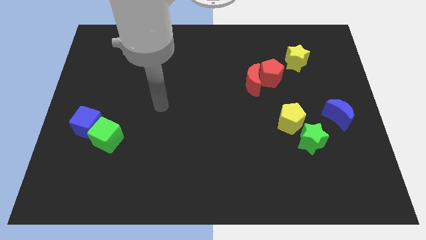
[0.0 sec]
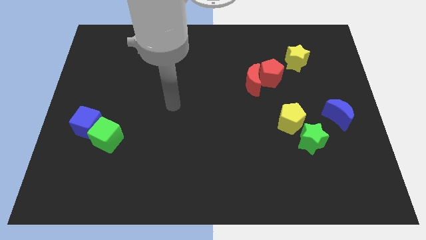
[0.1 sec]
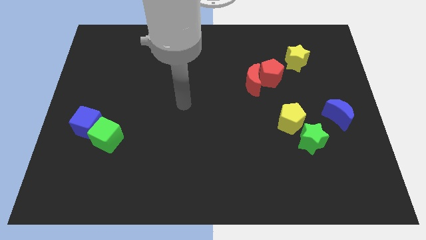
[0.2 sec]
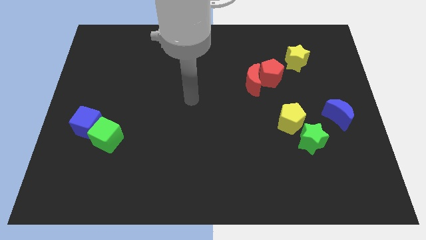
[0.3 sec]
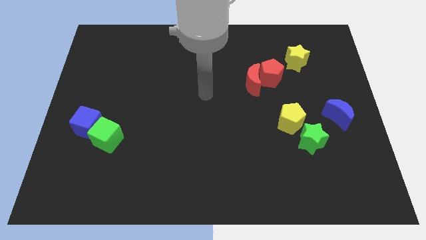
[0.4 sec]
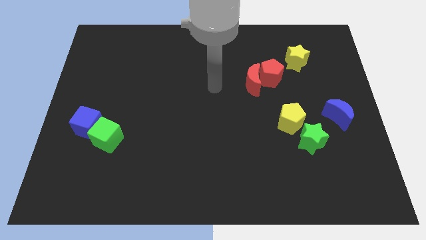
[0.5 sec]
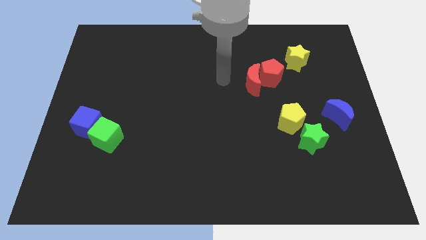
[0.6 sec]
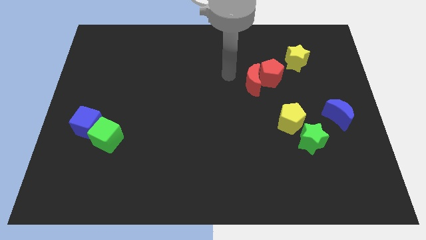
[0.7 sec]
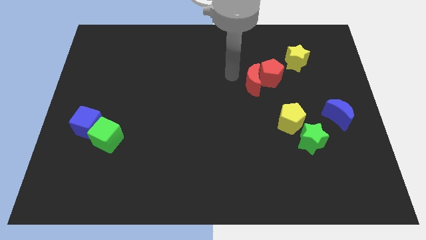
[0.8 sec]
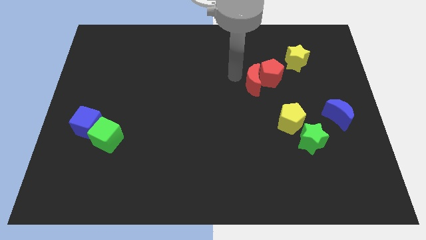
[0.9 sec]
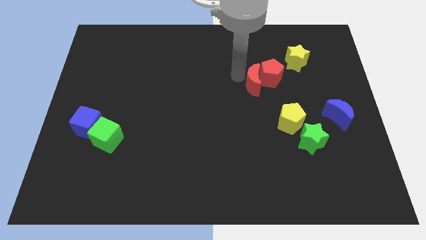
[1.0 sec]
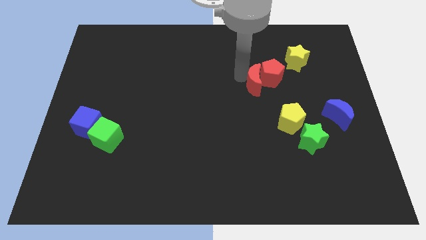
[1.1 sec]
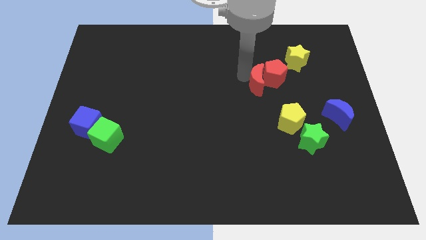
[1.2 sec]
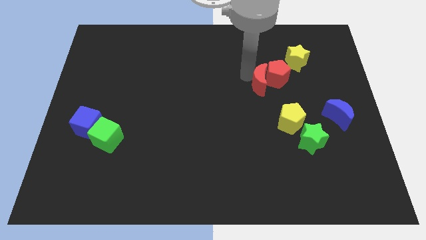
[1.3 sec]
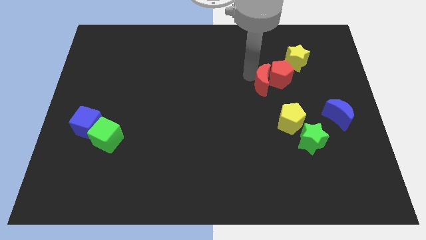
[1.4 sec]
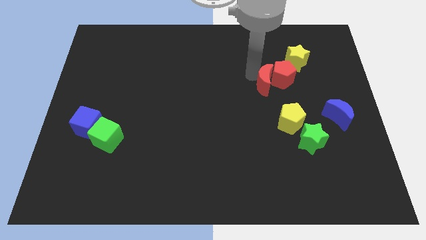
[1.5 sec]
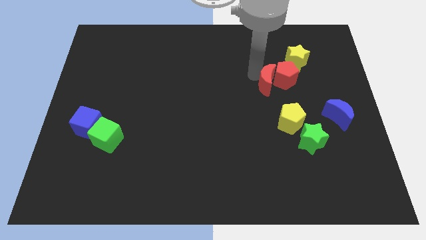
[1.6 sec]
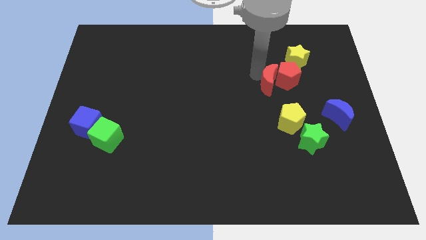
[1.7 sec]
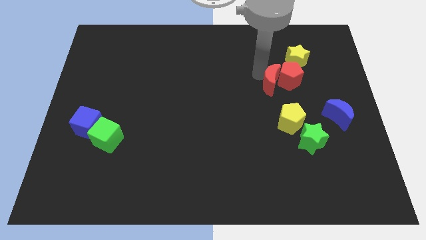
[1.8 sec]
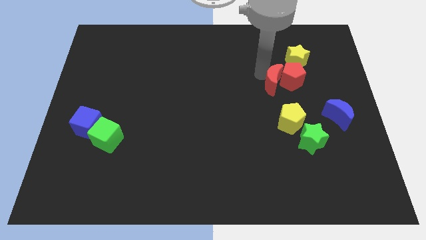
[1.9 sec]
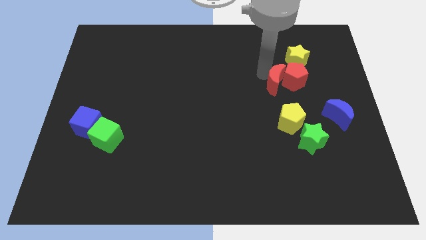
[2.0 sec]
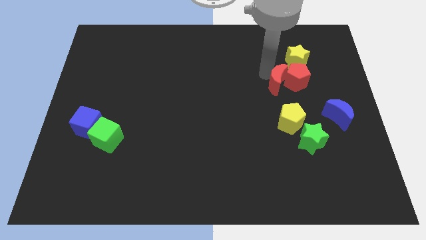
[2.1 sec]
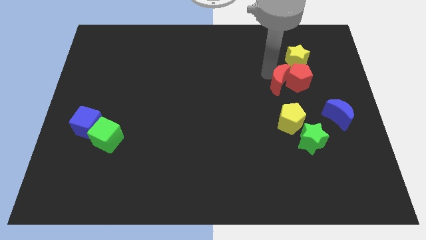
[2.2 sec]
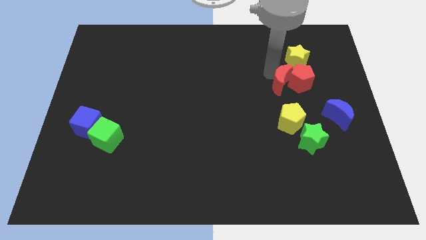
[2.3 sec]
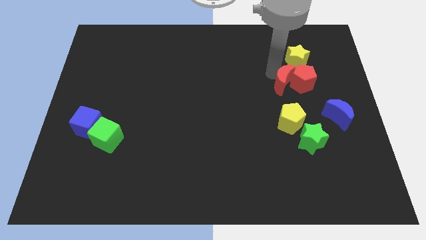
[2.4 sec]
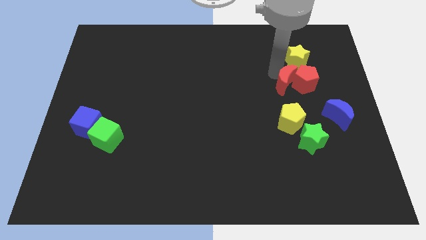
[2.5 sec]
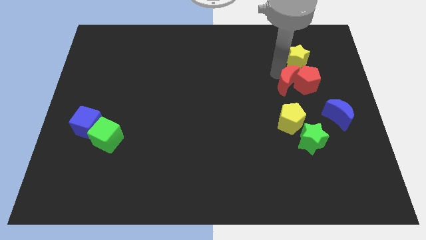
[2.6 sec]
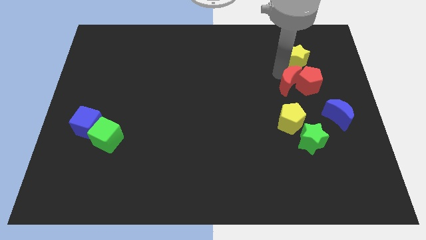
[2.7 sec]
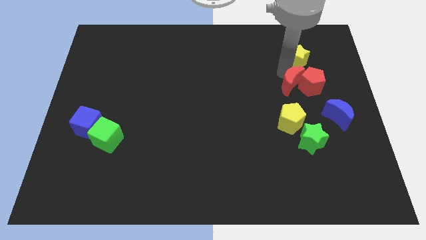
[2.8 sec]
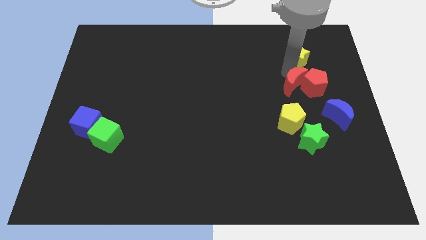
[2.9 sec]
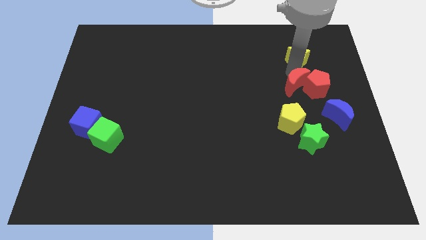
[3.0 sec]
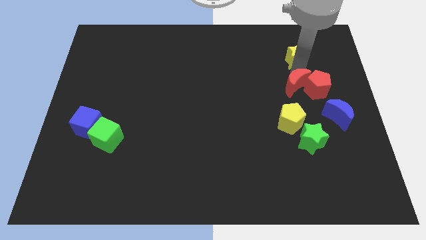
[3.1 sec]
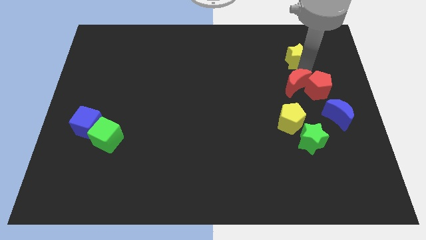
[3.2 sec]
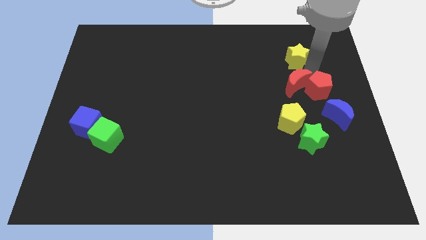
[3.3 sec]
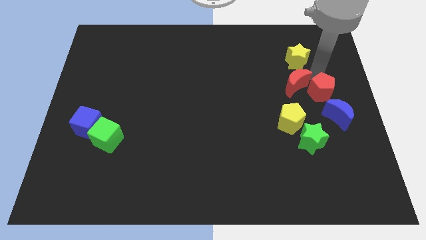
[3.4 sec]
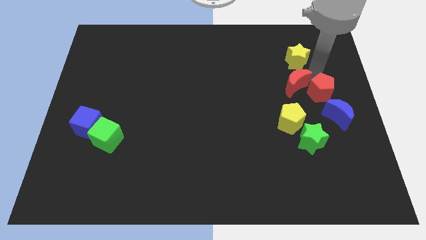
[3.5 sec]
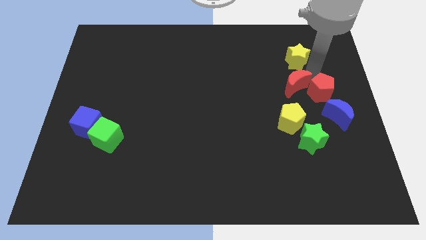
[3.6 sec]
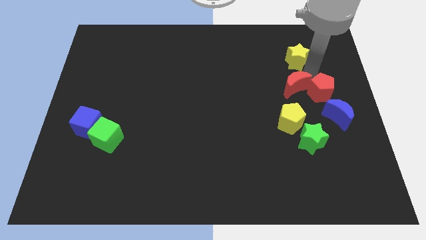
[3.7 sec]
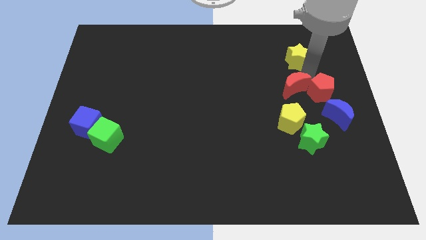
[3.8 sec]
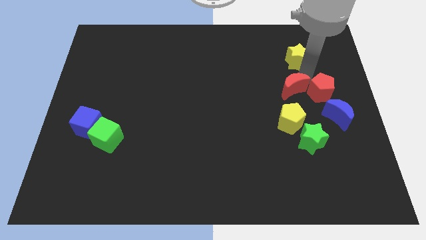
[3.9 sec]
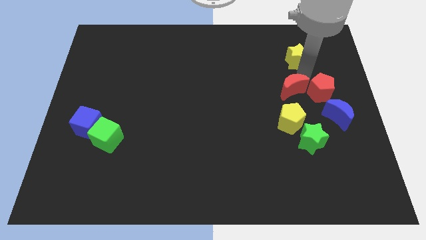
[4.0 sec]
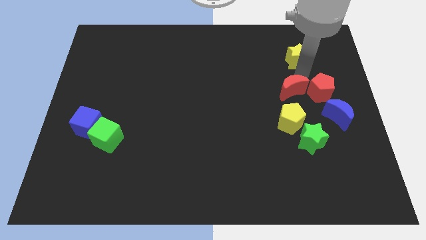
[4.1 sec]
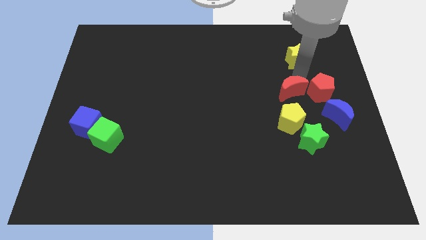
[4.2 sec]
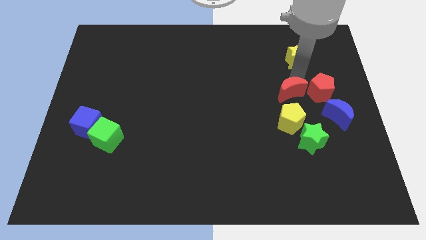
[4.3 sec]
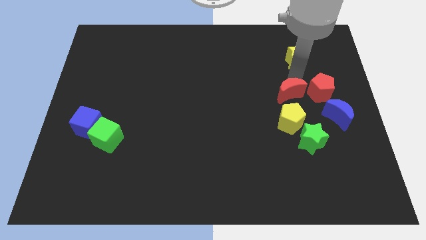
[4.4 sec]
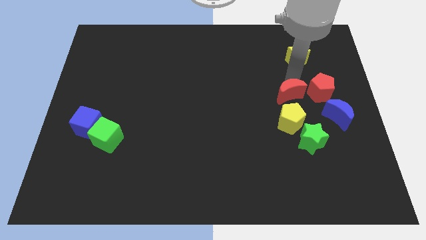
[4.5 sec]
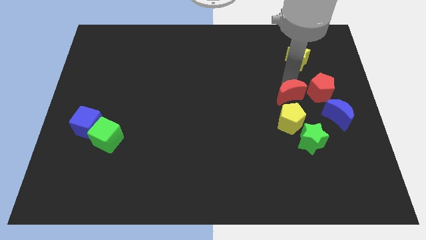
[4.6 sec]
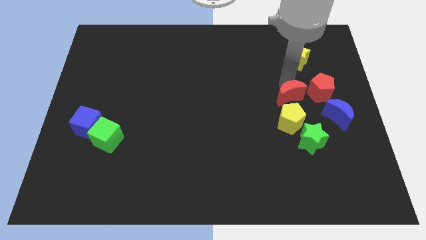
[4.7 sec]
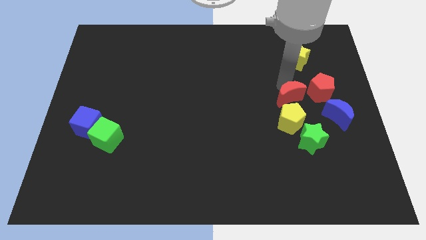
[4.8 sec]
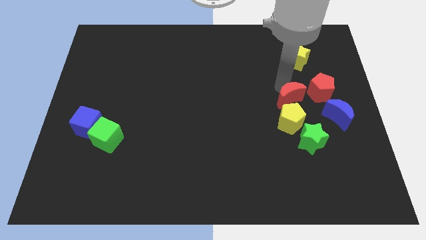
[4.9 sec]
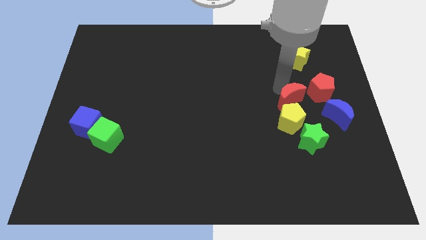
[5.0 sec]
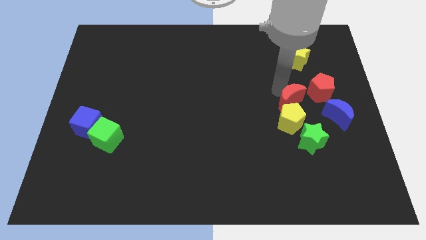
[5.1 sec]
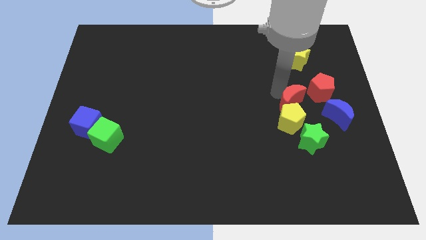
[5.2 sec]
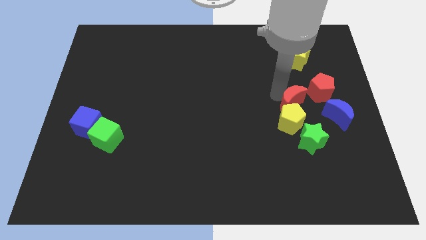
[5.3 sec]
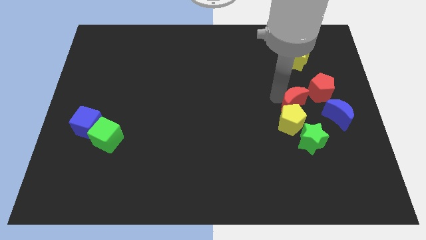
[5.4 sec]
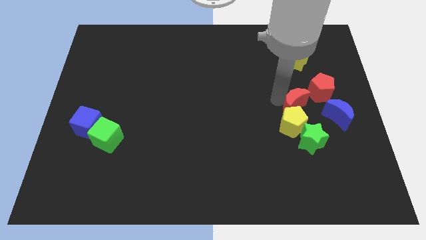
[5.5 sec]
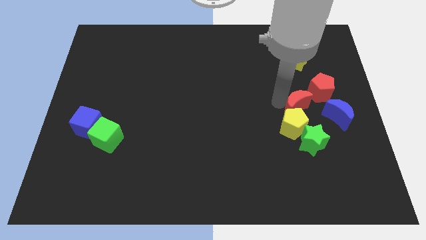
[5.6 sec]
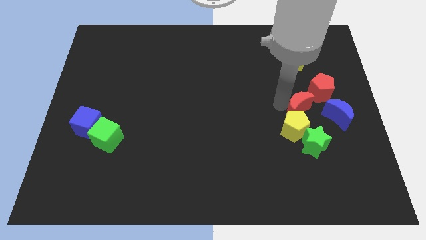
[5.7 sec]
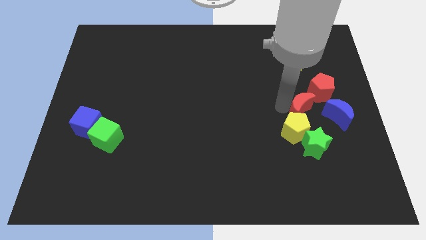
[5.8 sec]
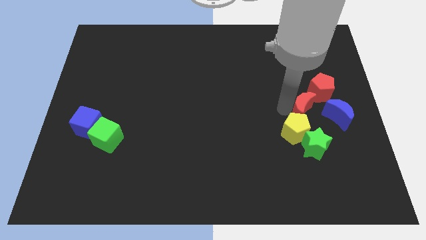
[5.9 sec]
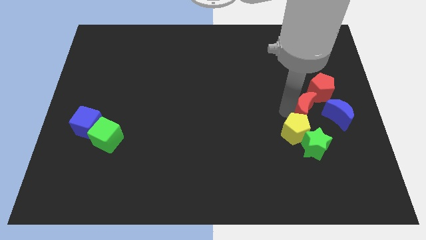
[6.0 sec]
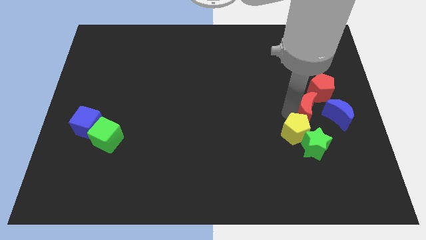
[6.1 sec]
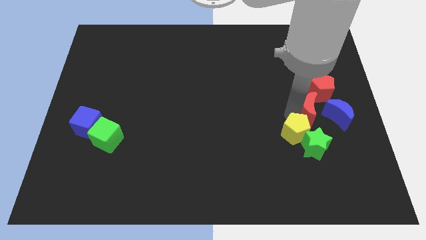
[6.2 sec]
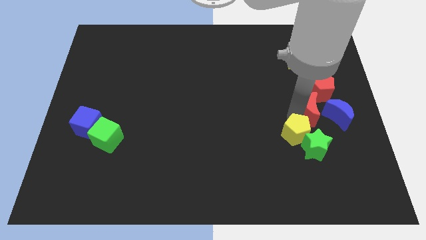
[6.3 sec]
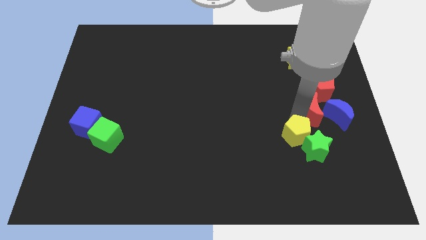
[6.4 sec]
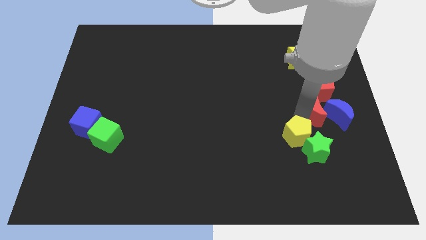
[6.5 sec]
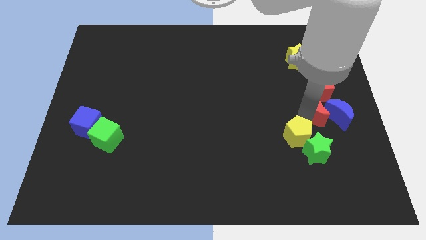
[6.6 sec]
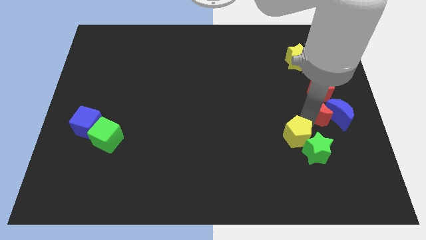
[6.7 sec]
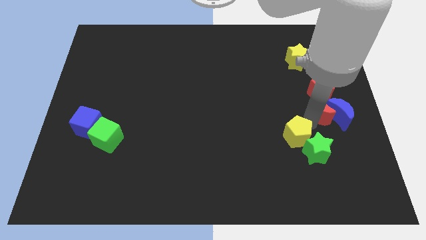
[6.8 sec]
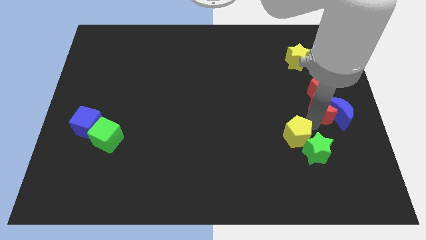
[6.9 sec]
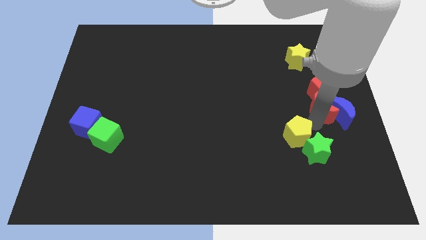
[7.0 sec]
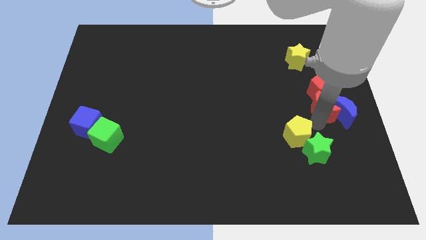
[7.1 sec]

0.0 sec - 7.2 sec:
push the red moon to the right side
